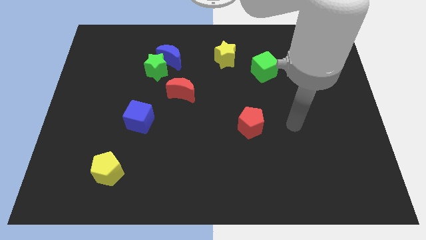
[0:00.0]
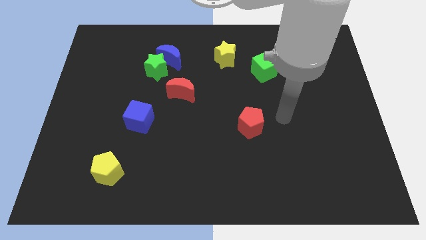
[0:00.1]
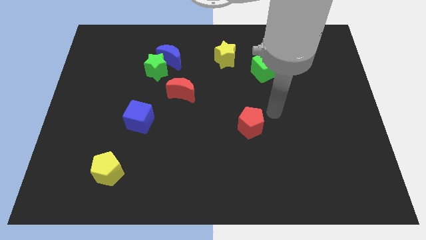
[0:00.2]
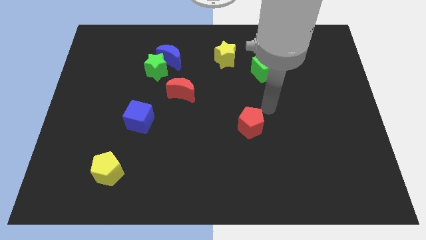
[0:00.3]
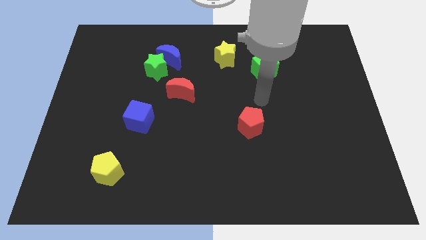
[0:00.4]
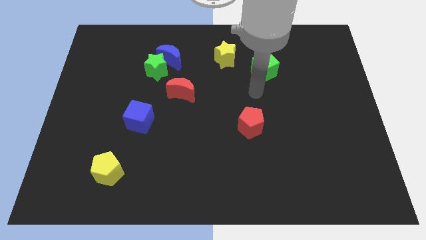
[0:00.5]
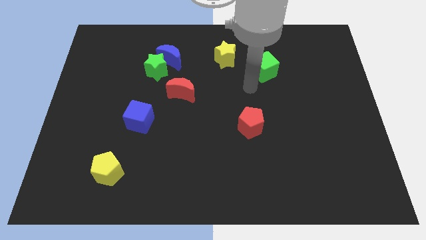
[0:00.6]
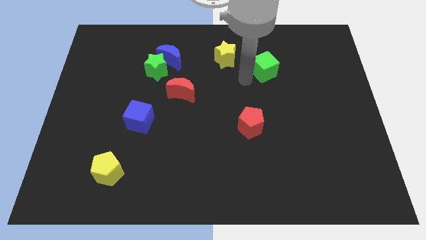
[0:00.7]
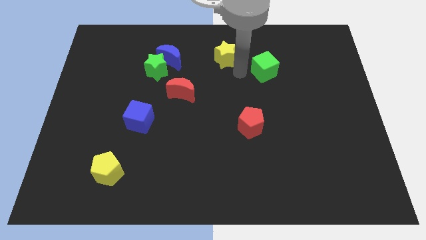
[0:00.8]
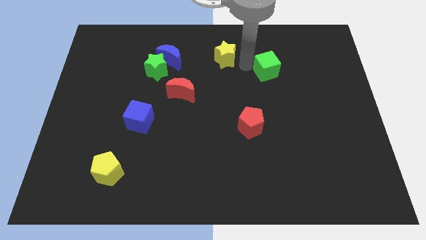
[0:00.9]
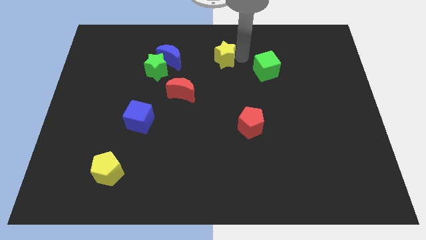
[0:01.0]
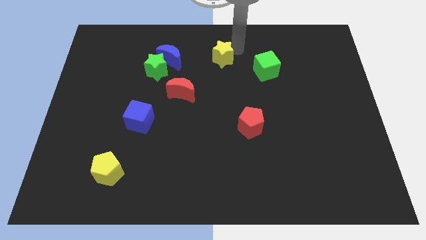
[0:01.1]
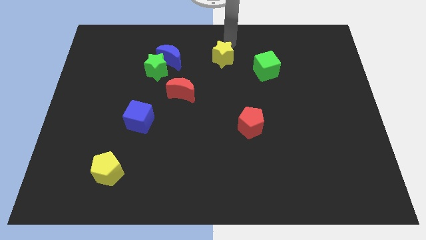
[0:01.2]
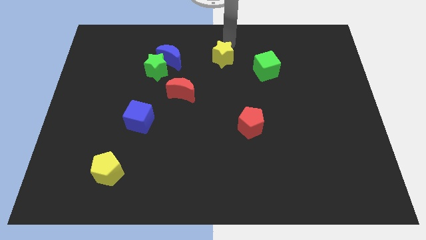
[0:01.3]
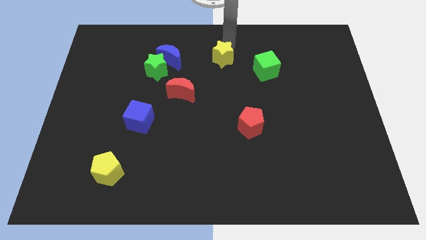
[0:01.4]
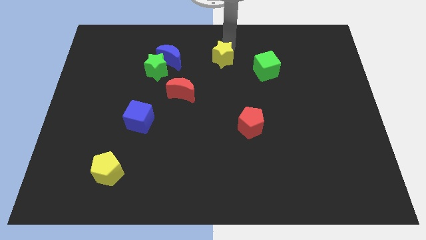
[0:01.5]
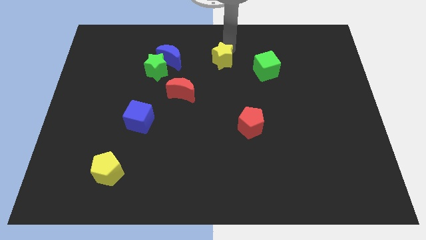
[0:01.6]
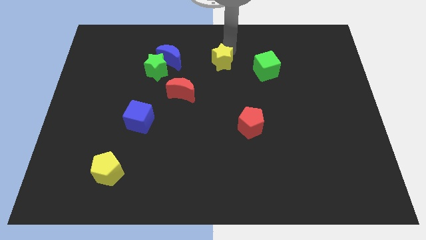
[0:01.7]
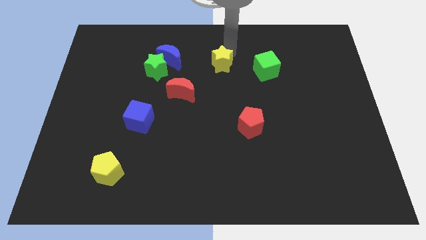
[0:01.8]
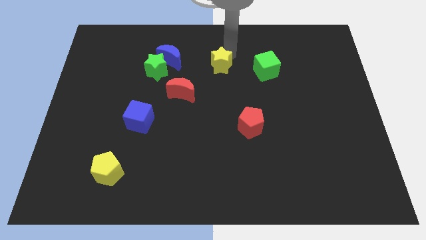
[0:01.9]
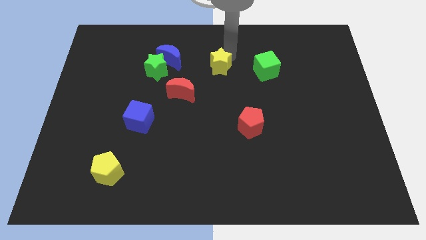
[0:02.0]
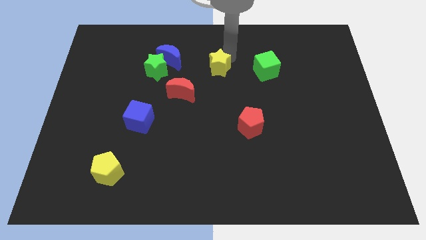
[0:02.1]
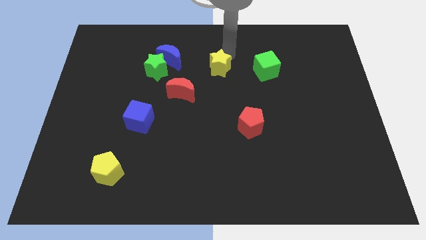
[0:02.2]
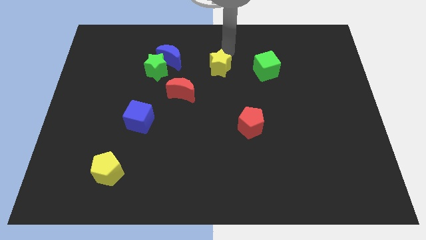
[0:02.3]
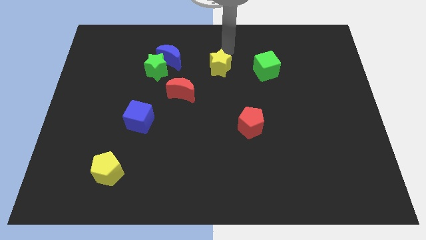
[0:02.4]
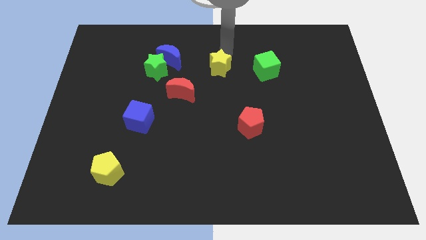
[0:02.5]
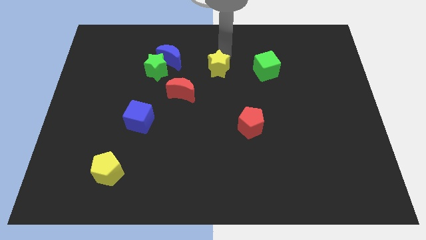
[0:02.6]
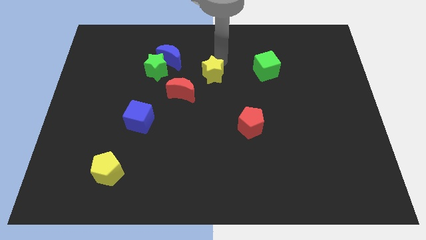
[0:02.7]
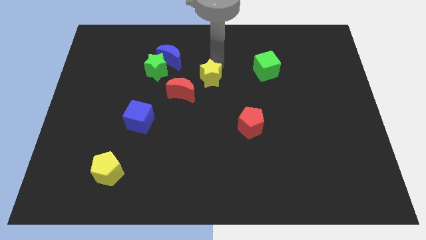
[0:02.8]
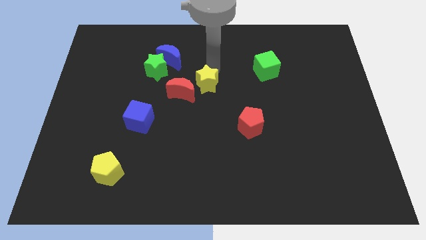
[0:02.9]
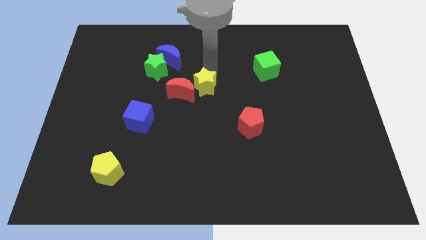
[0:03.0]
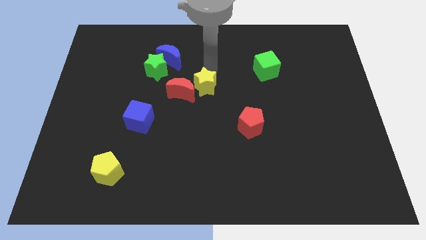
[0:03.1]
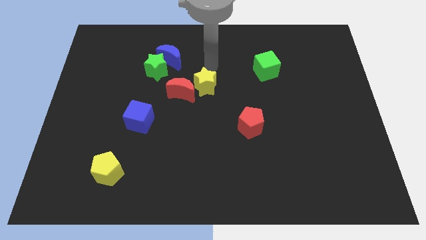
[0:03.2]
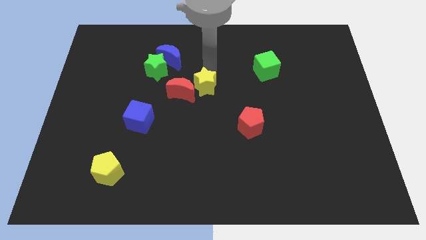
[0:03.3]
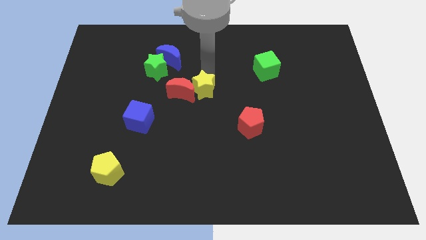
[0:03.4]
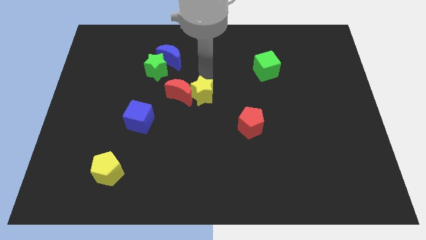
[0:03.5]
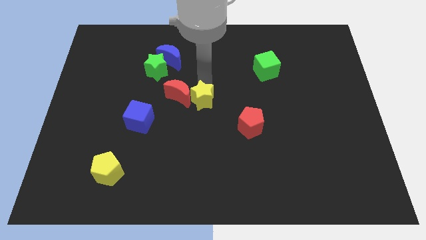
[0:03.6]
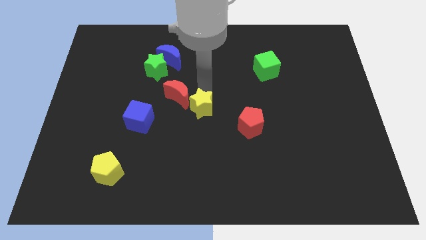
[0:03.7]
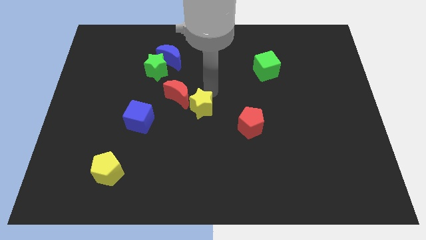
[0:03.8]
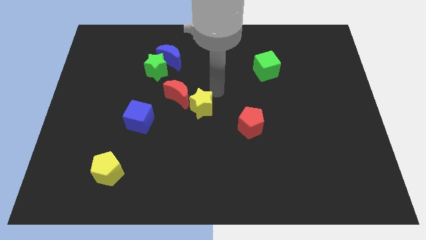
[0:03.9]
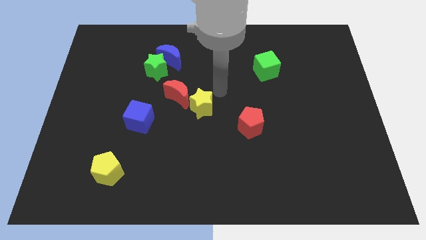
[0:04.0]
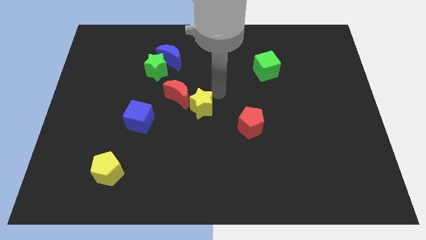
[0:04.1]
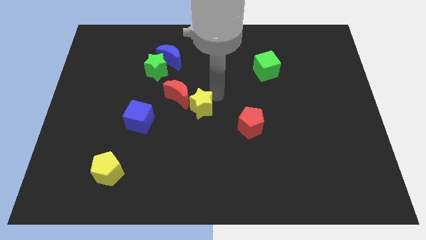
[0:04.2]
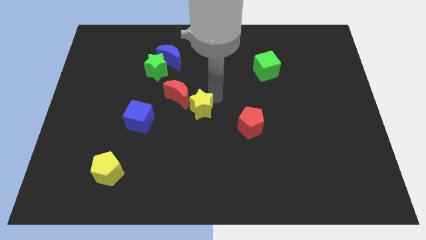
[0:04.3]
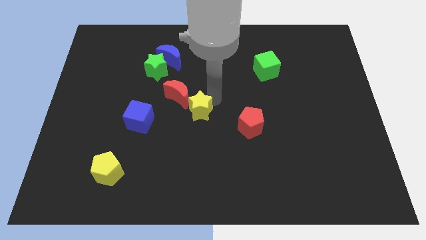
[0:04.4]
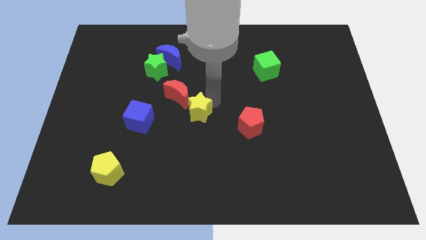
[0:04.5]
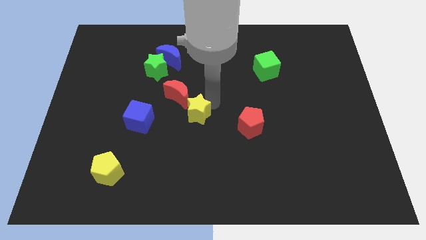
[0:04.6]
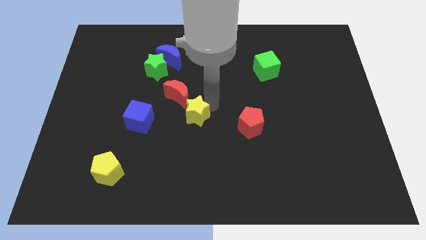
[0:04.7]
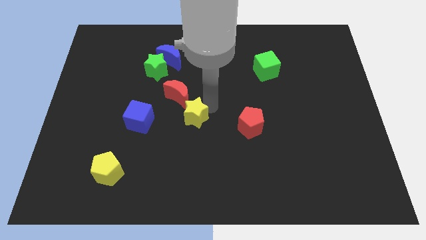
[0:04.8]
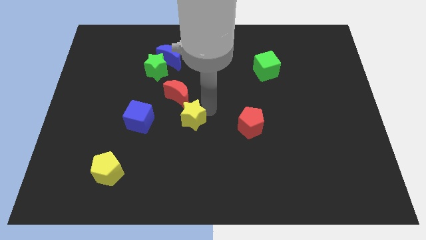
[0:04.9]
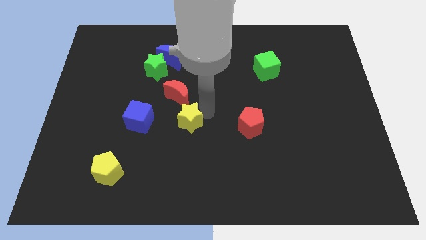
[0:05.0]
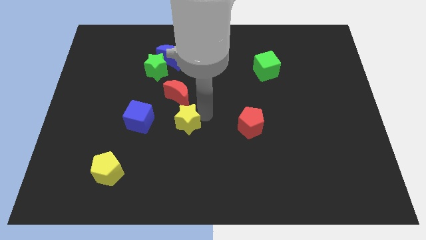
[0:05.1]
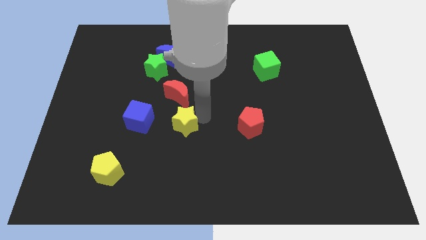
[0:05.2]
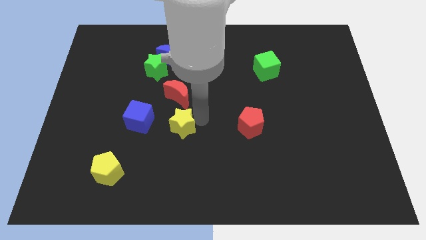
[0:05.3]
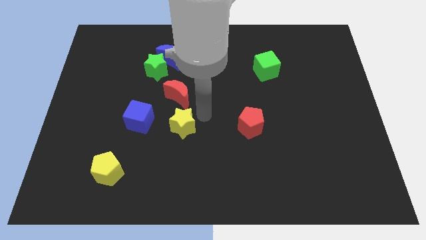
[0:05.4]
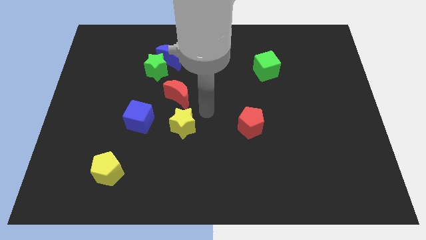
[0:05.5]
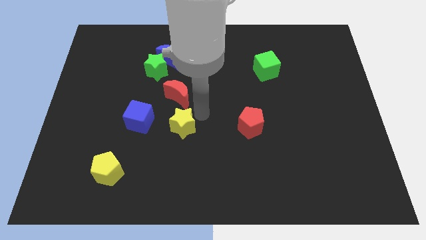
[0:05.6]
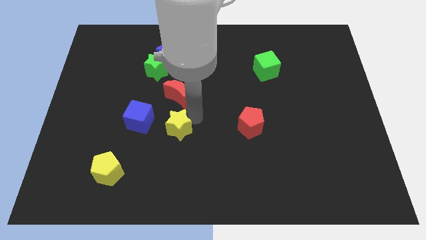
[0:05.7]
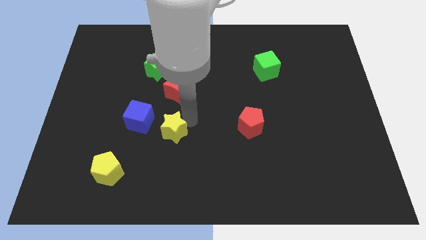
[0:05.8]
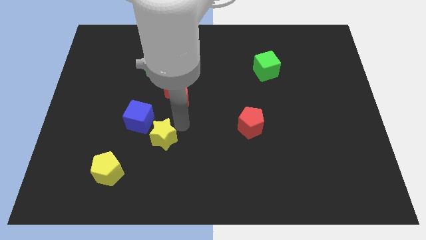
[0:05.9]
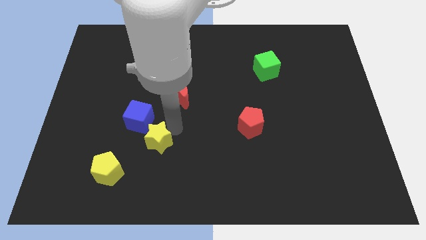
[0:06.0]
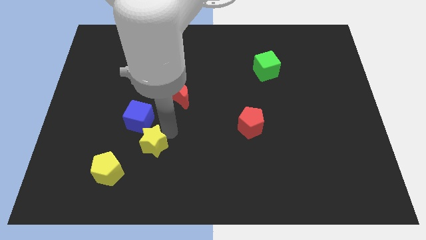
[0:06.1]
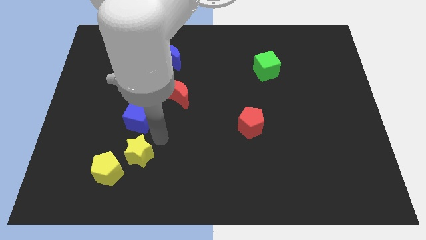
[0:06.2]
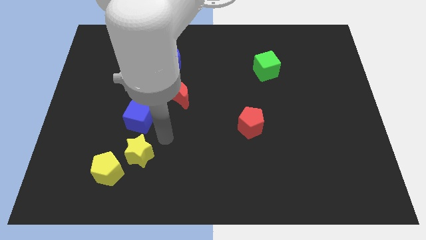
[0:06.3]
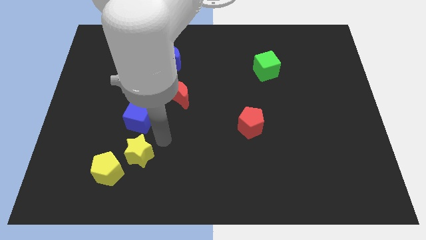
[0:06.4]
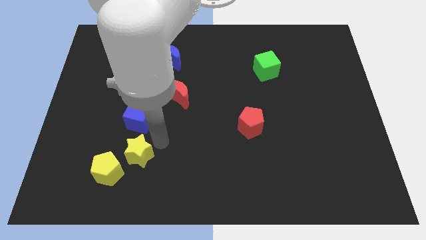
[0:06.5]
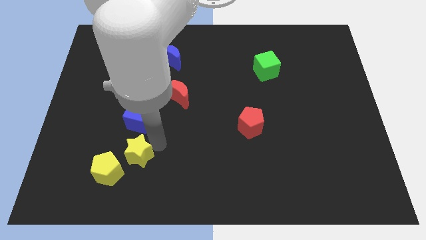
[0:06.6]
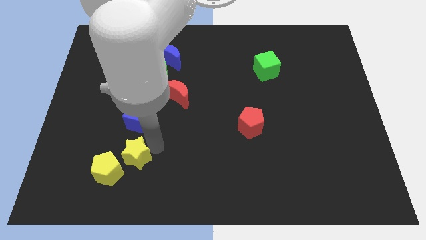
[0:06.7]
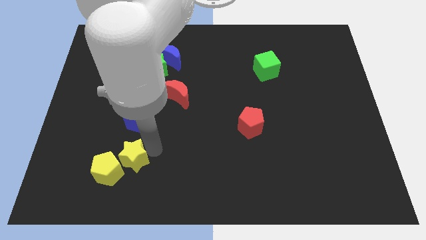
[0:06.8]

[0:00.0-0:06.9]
push the yellow star towards the yellow pentagon

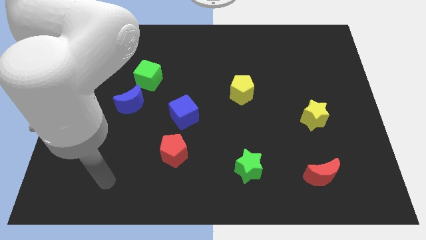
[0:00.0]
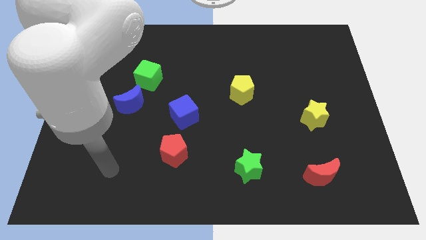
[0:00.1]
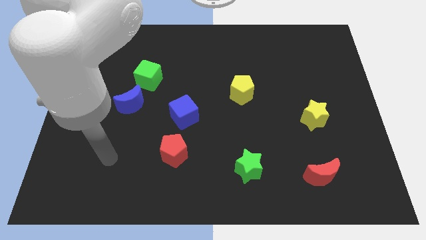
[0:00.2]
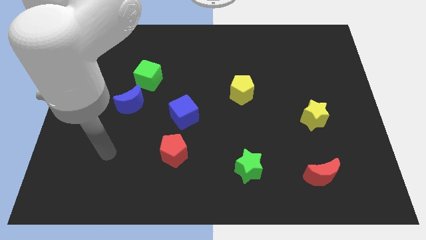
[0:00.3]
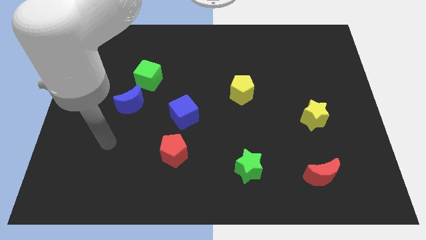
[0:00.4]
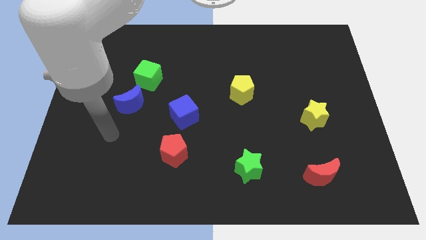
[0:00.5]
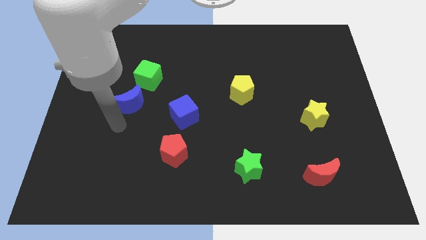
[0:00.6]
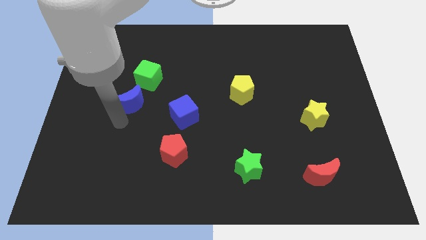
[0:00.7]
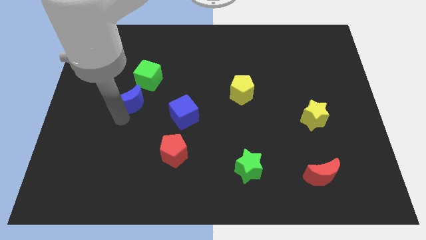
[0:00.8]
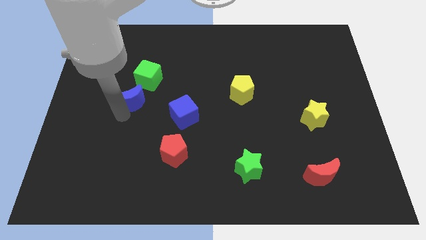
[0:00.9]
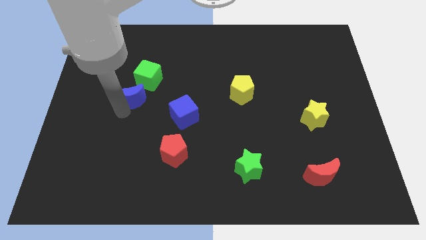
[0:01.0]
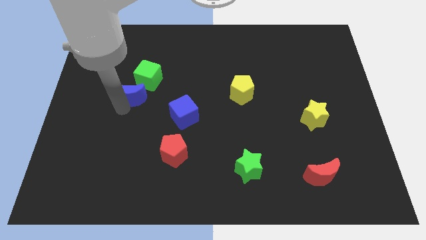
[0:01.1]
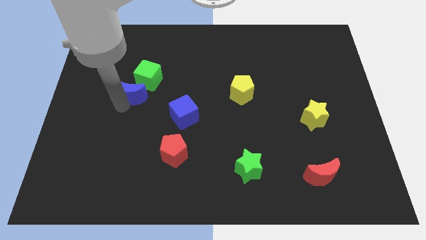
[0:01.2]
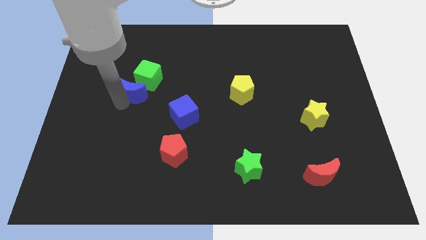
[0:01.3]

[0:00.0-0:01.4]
move the blue moon close to the green cube
